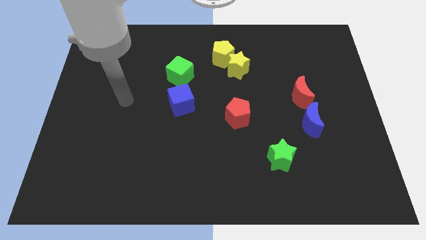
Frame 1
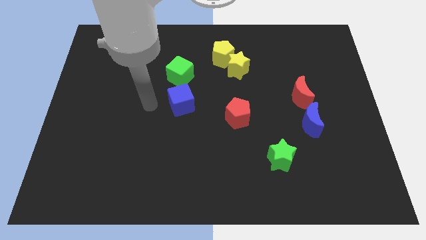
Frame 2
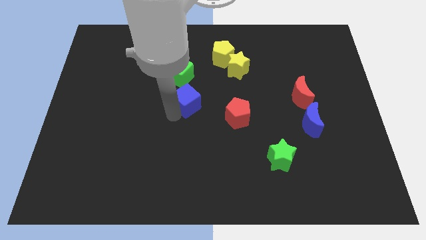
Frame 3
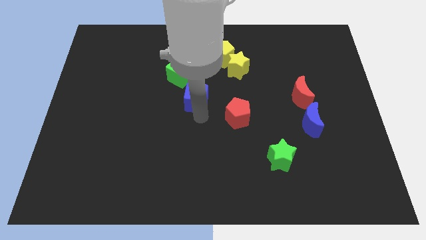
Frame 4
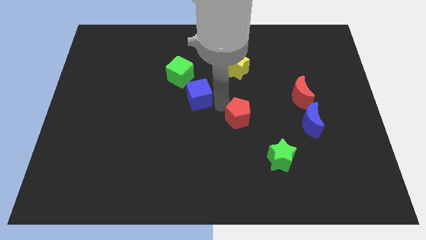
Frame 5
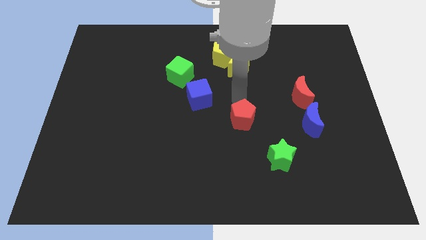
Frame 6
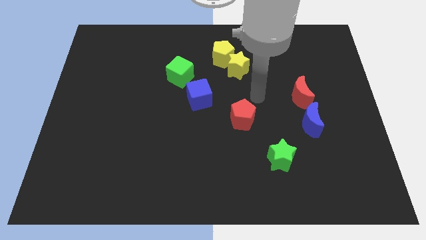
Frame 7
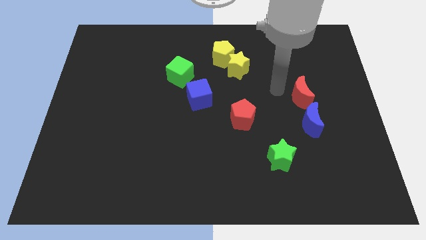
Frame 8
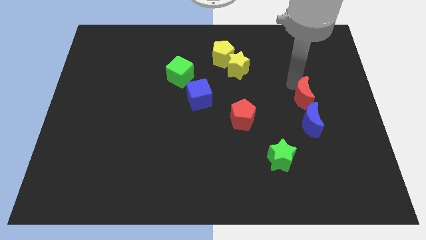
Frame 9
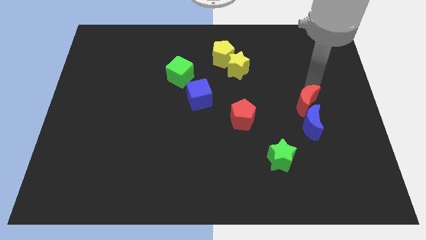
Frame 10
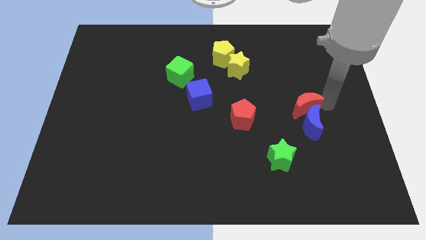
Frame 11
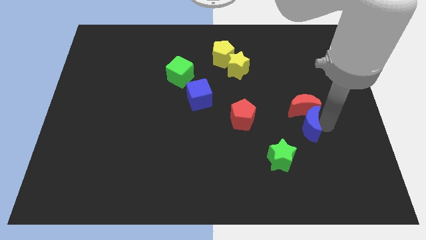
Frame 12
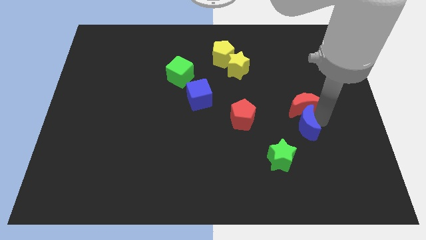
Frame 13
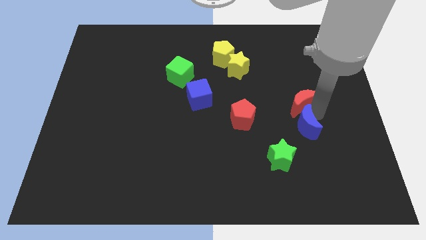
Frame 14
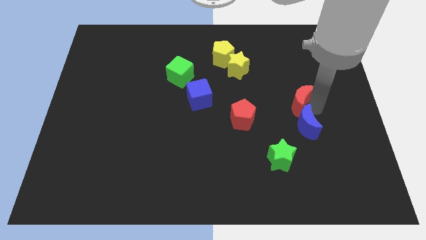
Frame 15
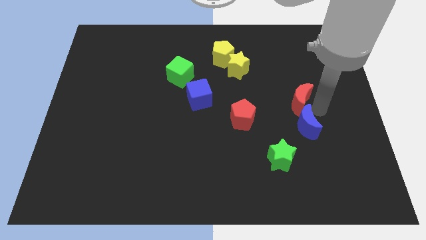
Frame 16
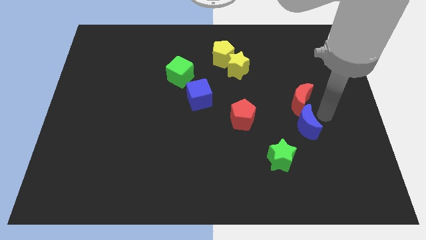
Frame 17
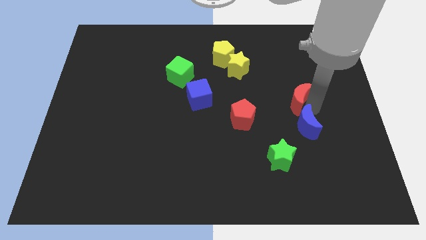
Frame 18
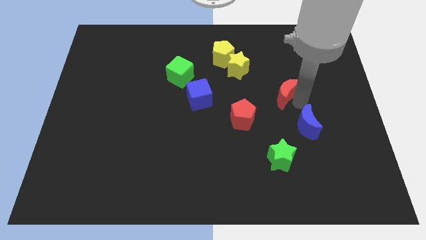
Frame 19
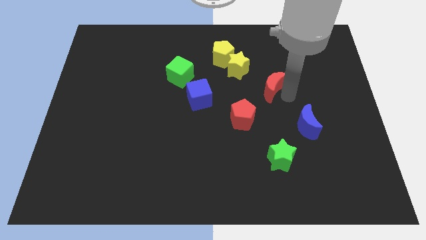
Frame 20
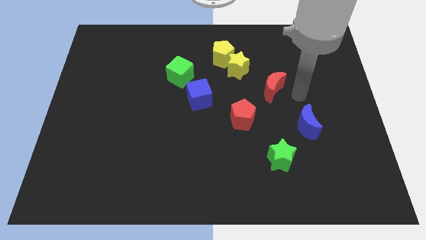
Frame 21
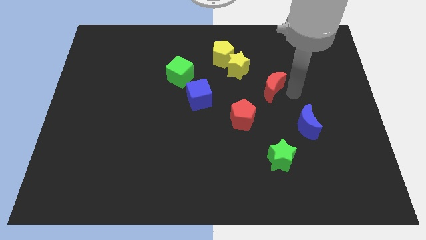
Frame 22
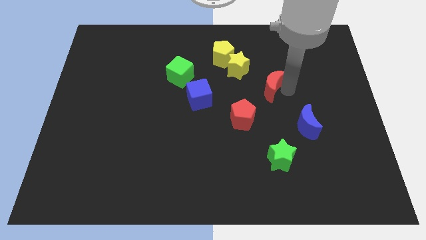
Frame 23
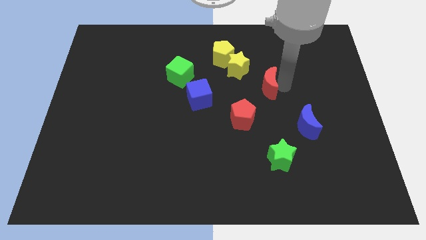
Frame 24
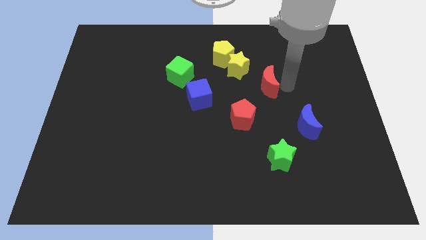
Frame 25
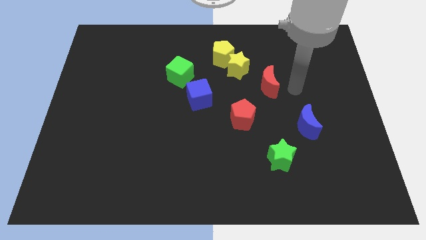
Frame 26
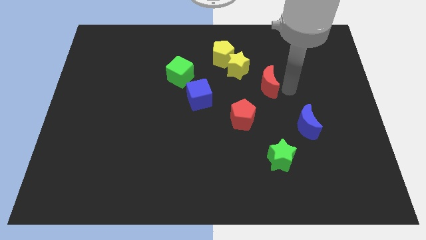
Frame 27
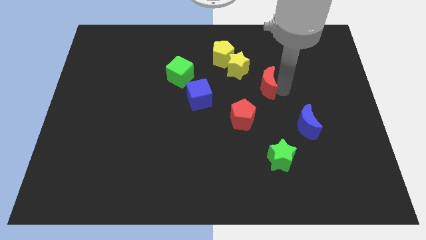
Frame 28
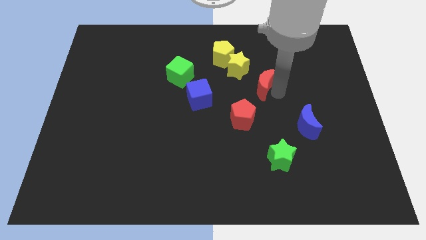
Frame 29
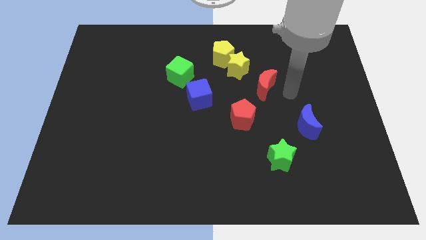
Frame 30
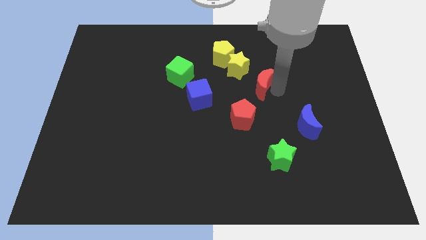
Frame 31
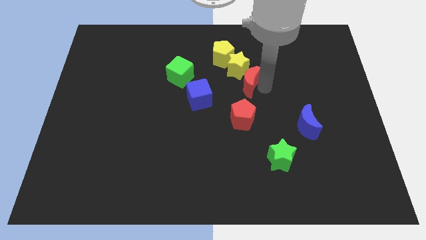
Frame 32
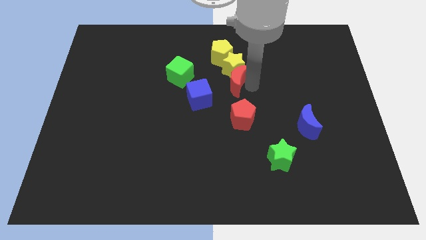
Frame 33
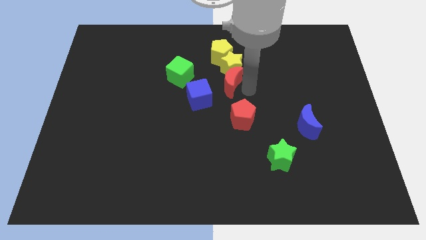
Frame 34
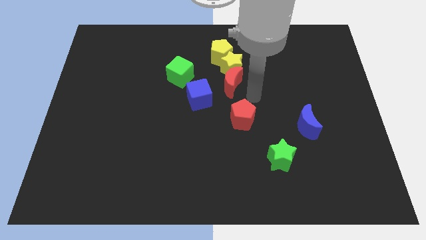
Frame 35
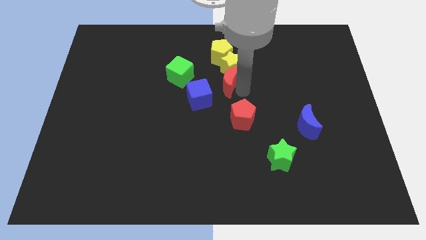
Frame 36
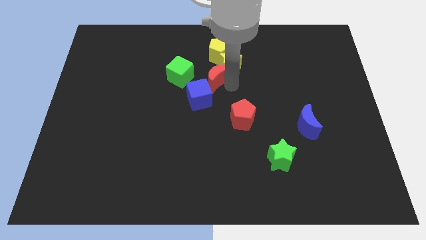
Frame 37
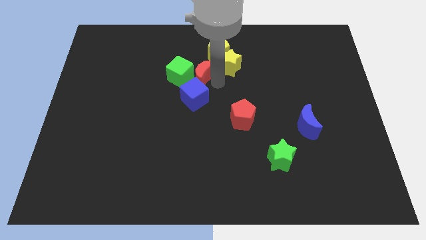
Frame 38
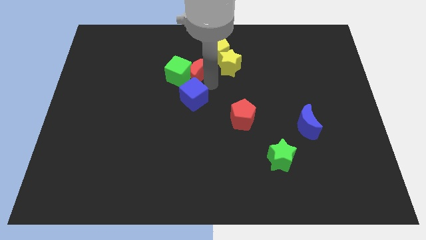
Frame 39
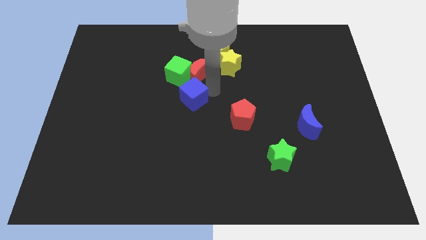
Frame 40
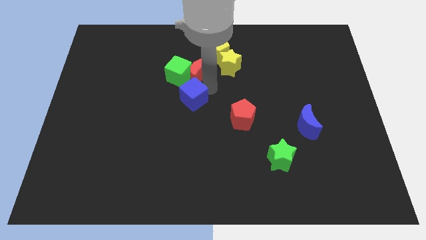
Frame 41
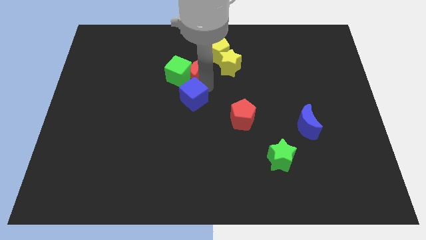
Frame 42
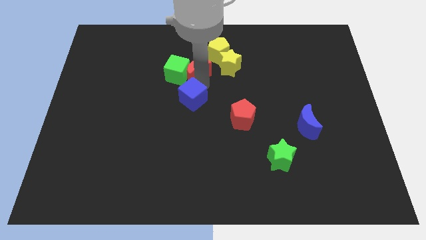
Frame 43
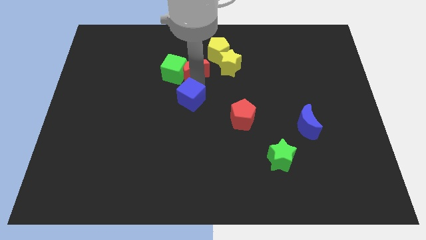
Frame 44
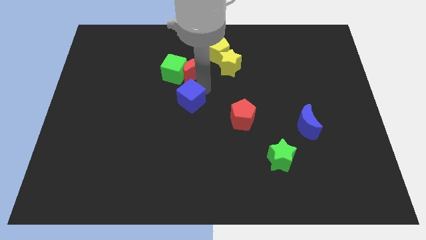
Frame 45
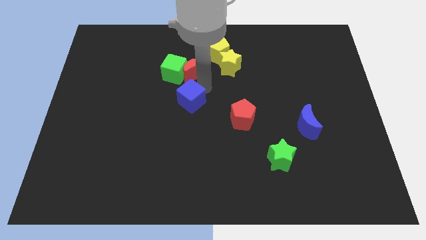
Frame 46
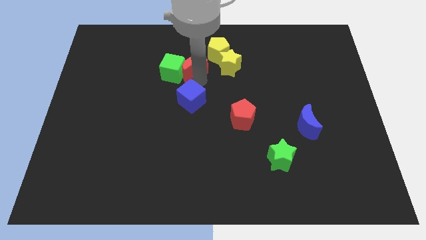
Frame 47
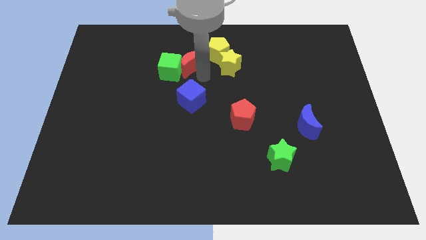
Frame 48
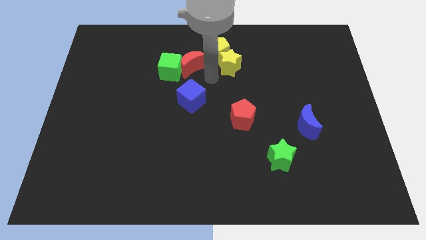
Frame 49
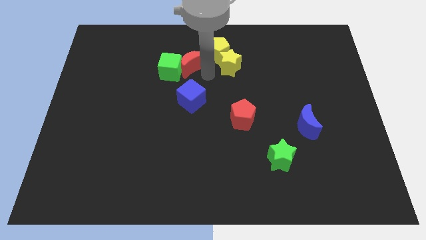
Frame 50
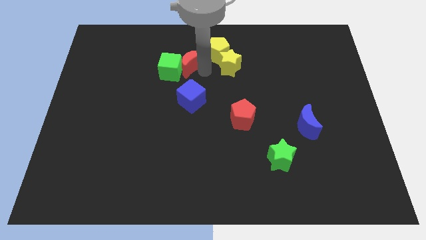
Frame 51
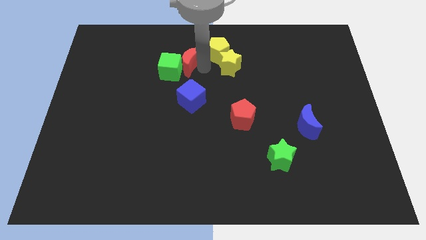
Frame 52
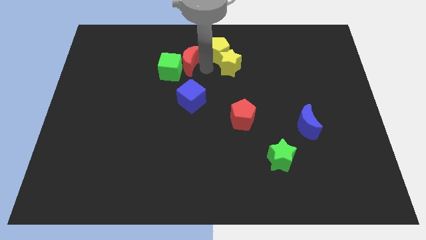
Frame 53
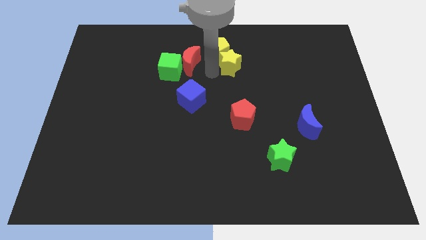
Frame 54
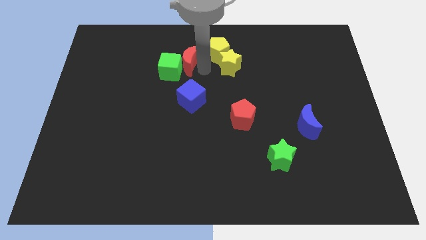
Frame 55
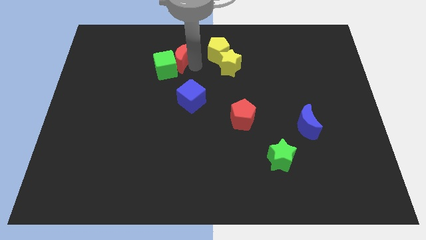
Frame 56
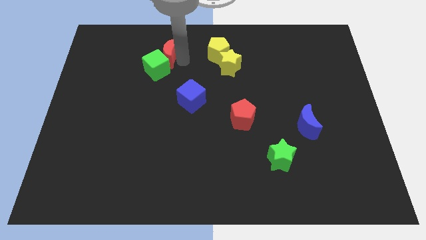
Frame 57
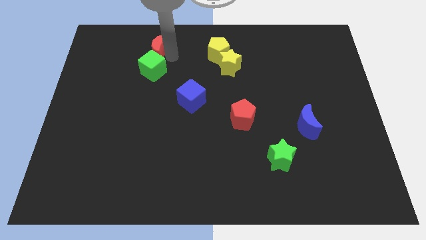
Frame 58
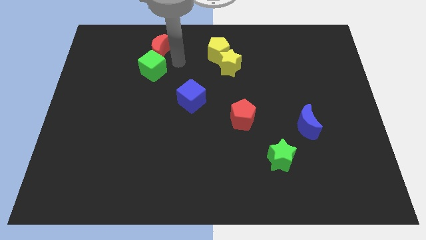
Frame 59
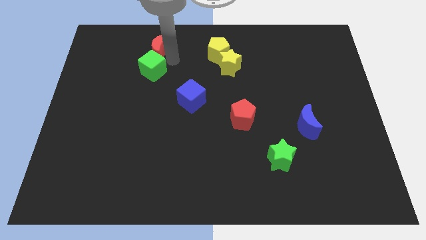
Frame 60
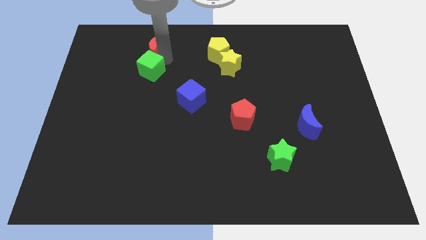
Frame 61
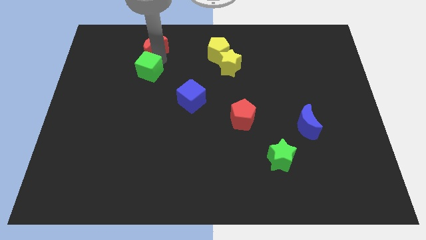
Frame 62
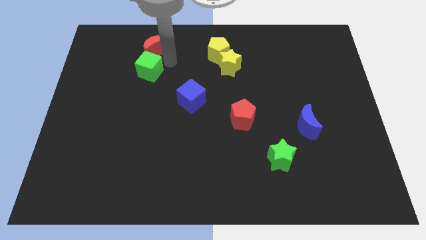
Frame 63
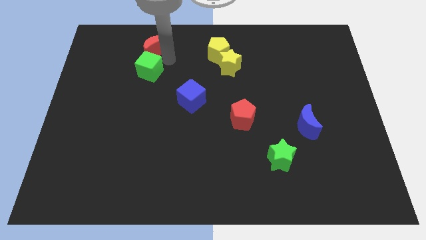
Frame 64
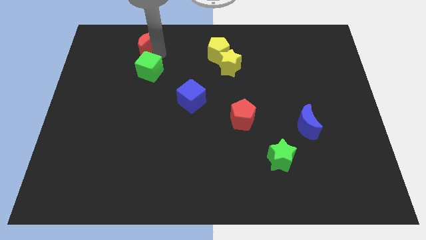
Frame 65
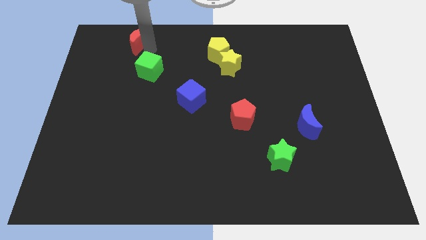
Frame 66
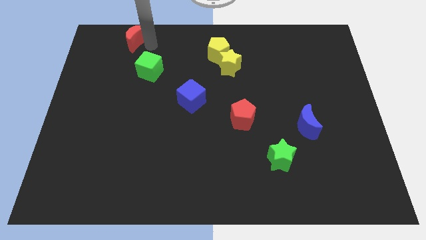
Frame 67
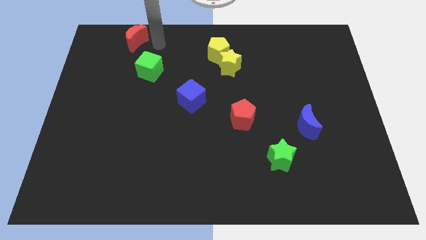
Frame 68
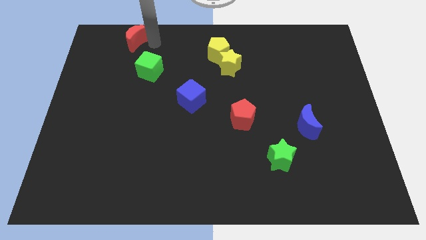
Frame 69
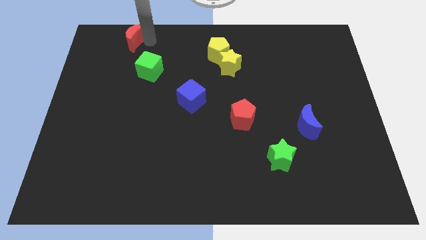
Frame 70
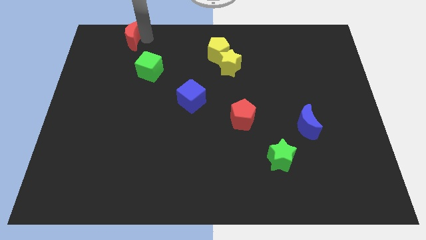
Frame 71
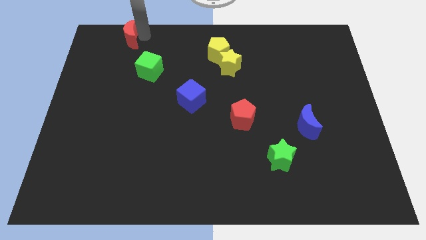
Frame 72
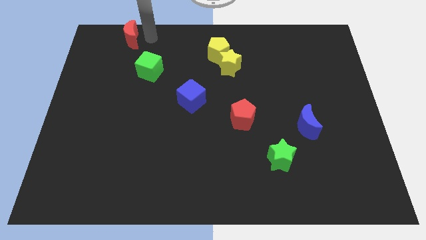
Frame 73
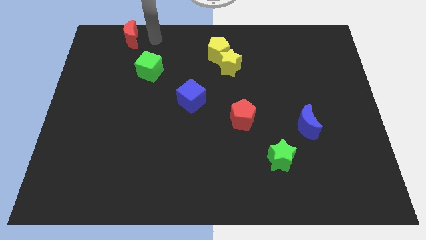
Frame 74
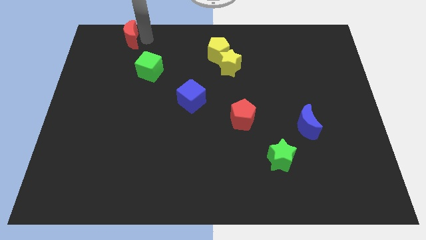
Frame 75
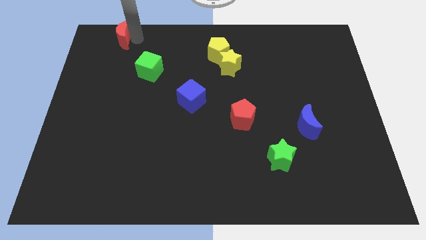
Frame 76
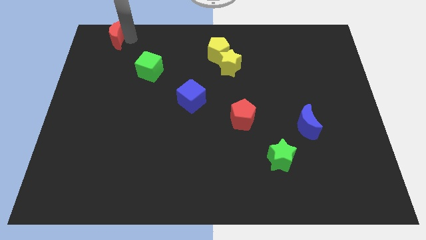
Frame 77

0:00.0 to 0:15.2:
slide the red moon to the upper left corner
